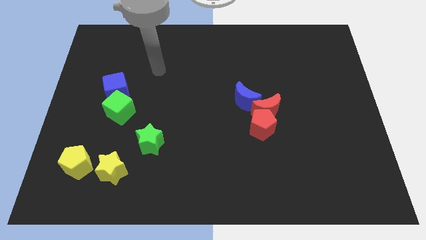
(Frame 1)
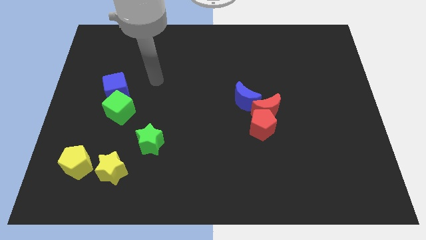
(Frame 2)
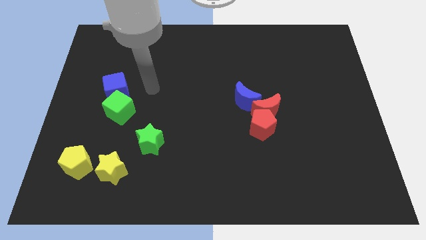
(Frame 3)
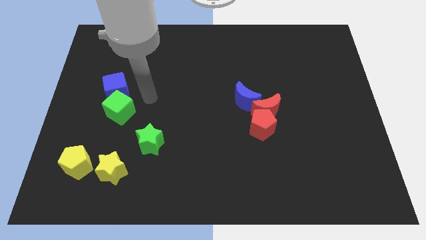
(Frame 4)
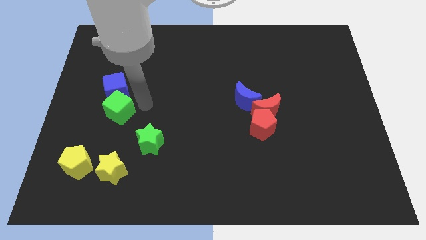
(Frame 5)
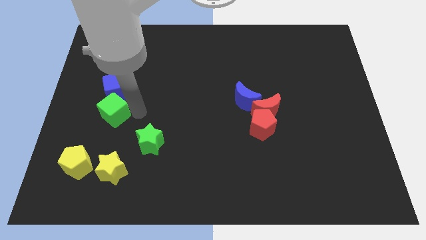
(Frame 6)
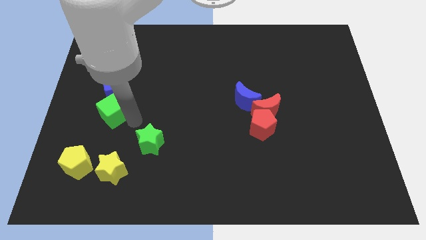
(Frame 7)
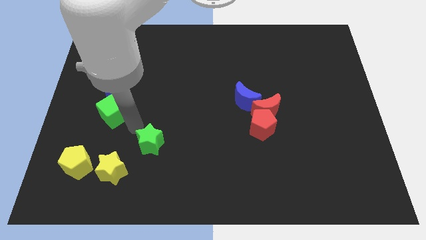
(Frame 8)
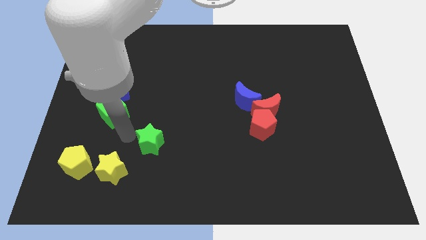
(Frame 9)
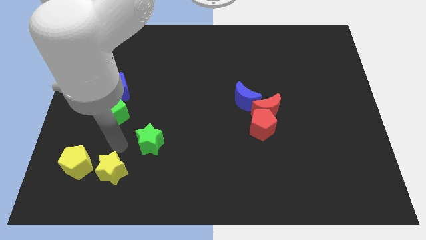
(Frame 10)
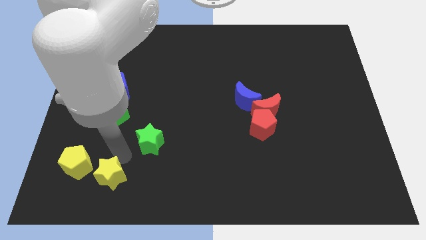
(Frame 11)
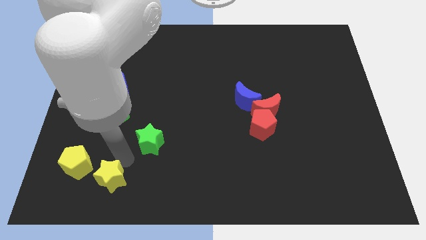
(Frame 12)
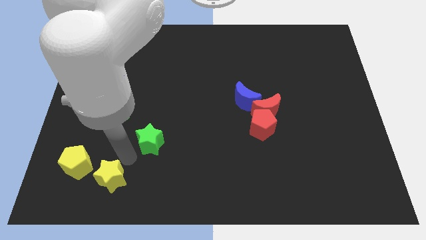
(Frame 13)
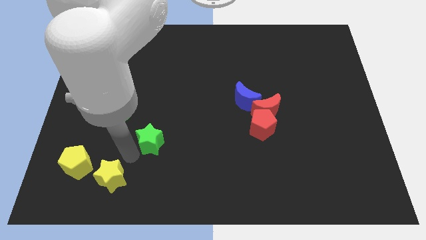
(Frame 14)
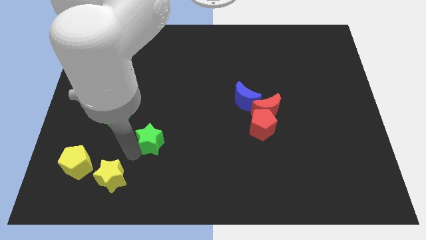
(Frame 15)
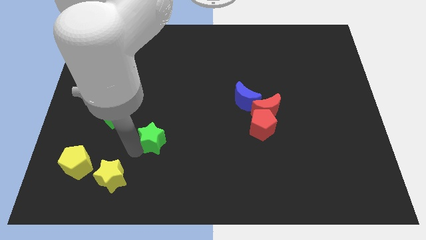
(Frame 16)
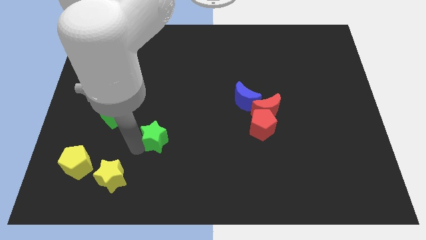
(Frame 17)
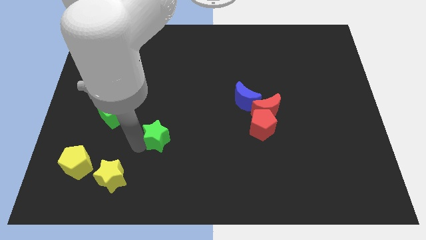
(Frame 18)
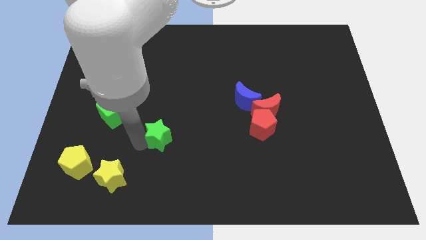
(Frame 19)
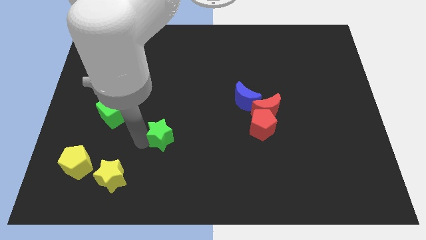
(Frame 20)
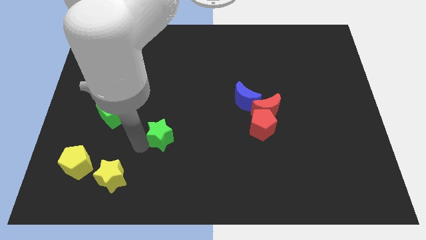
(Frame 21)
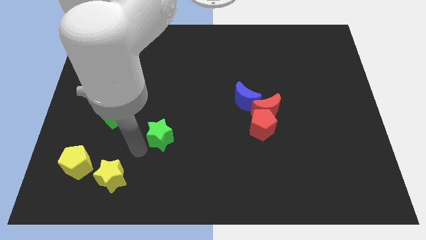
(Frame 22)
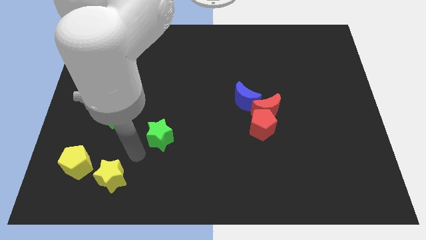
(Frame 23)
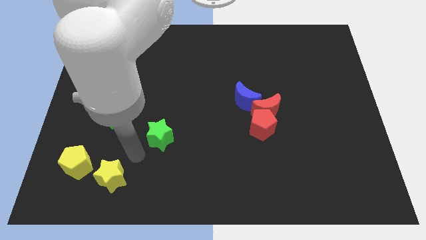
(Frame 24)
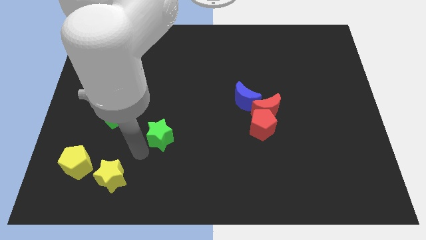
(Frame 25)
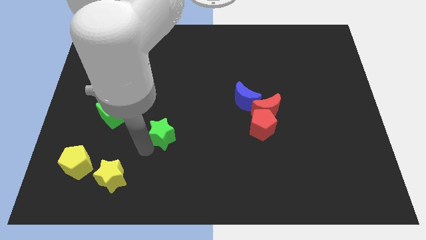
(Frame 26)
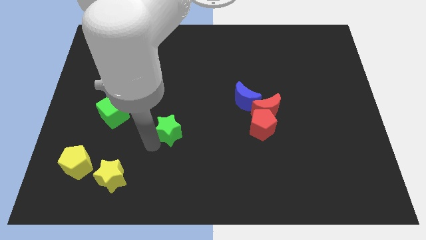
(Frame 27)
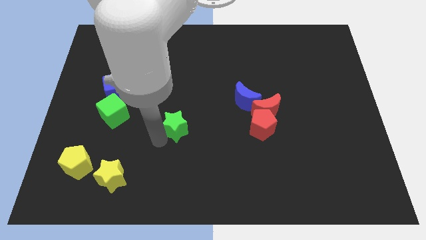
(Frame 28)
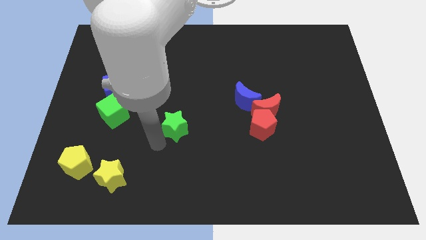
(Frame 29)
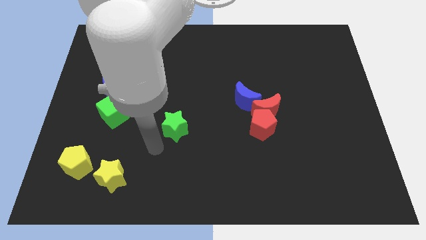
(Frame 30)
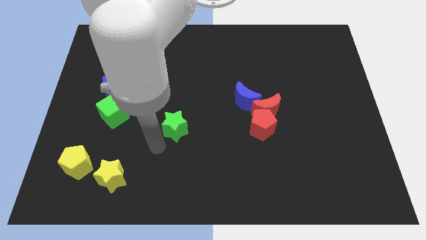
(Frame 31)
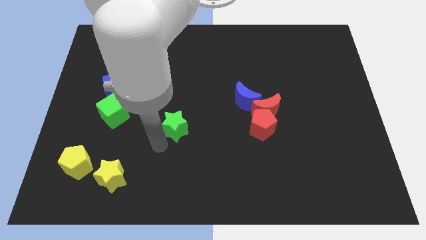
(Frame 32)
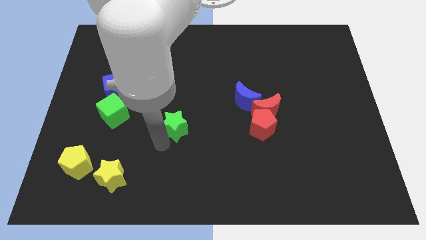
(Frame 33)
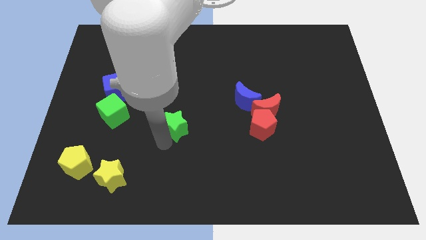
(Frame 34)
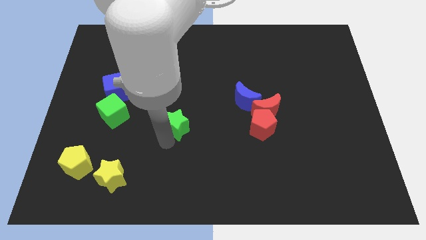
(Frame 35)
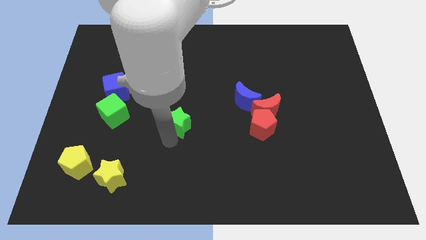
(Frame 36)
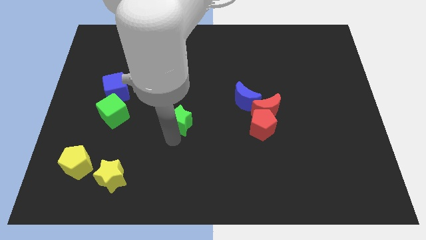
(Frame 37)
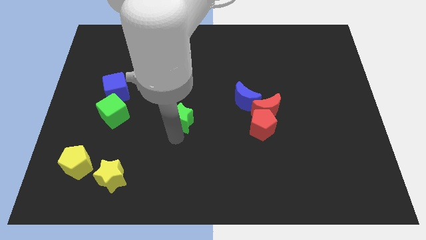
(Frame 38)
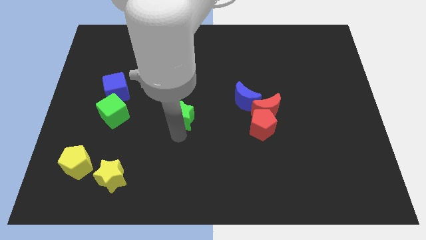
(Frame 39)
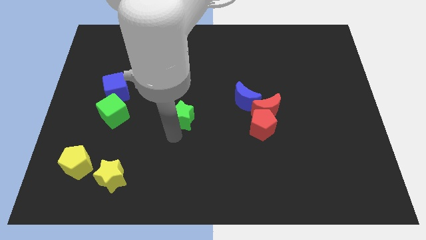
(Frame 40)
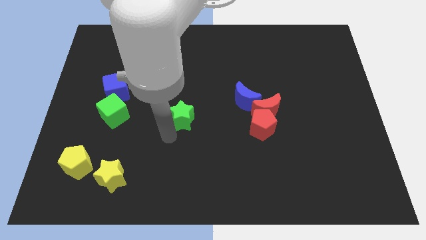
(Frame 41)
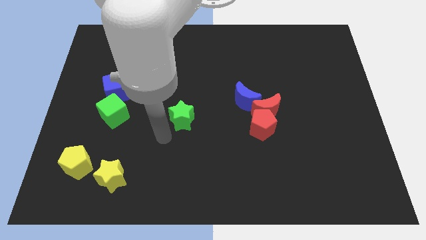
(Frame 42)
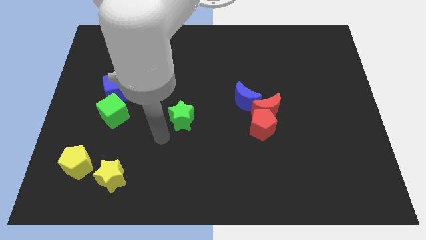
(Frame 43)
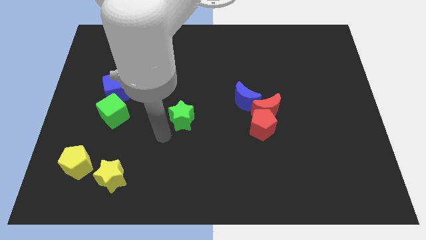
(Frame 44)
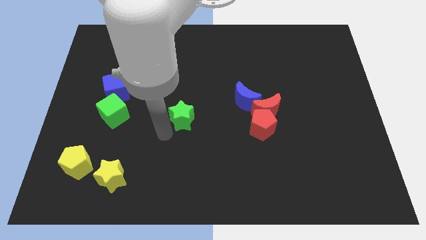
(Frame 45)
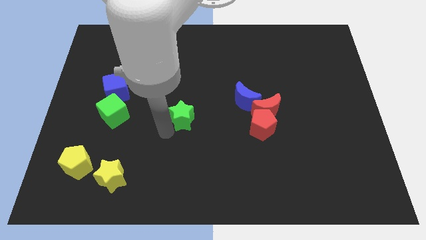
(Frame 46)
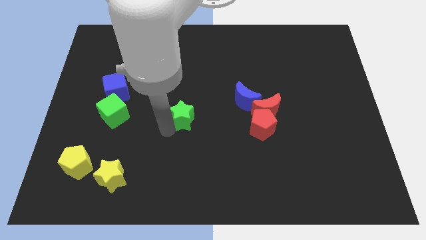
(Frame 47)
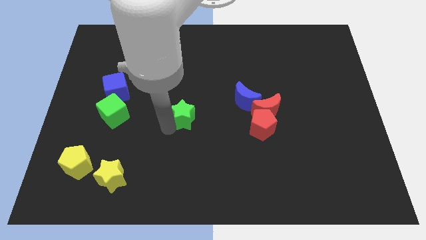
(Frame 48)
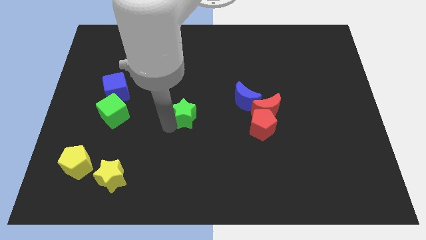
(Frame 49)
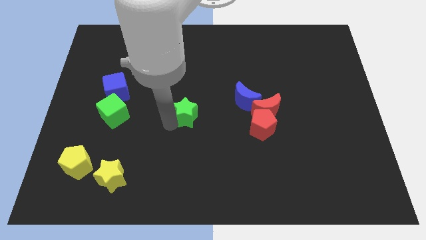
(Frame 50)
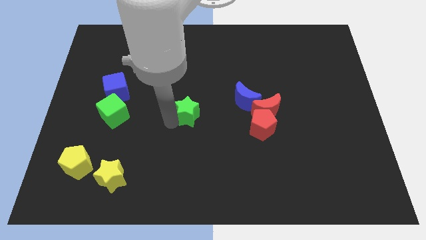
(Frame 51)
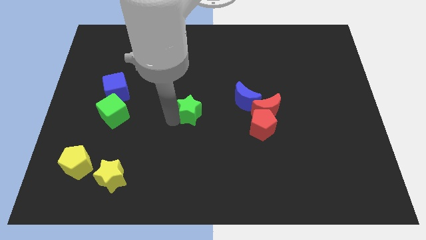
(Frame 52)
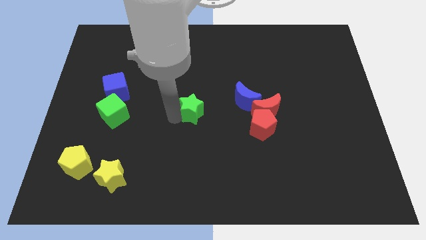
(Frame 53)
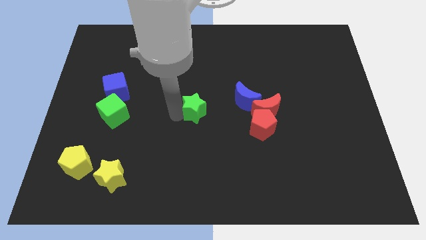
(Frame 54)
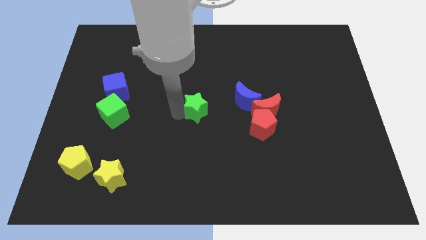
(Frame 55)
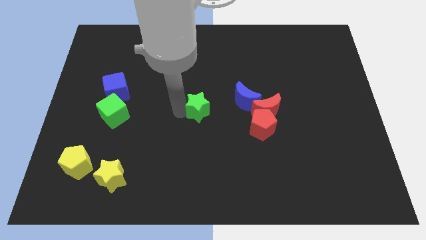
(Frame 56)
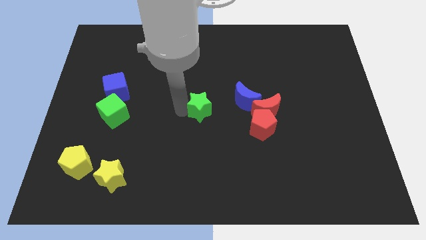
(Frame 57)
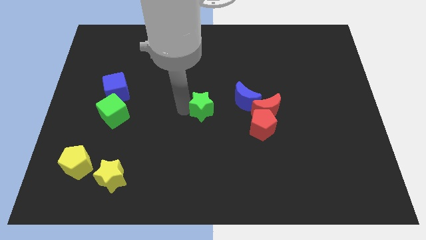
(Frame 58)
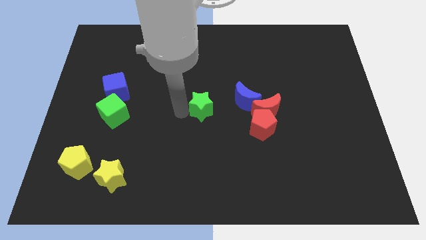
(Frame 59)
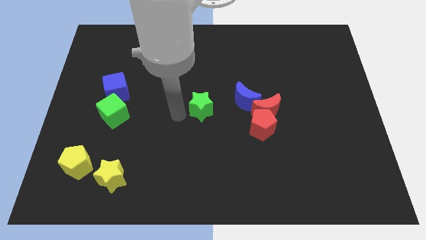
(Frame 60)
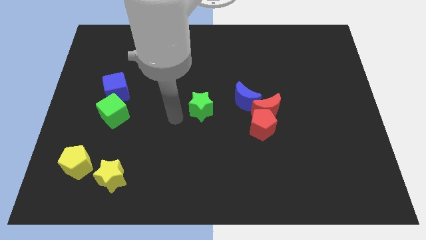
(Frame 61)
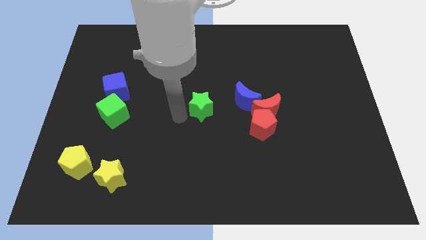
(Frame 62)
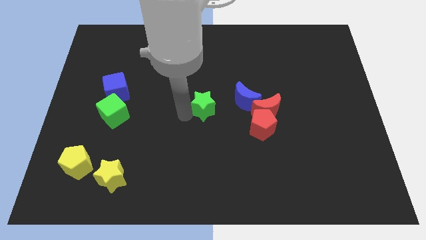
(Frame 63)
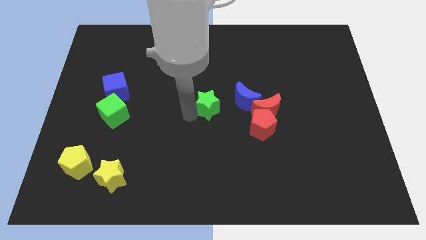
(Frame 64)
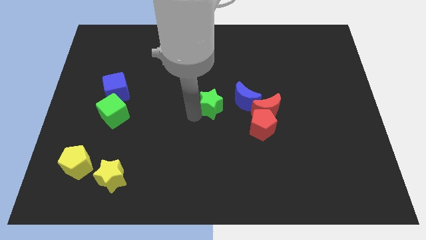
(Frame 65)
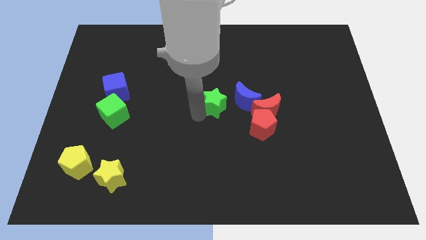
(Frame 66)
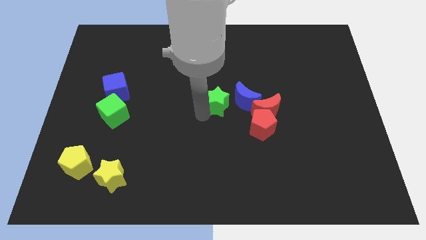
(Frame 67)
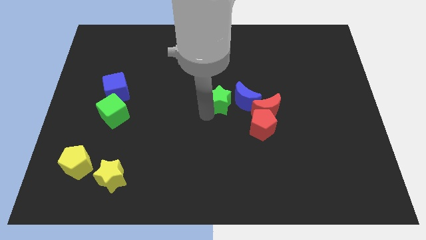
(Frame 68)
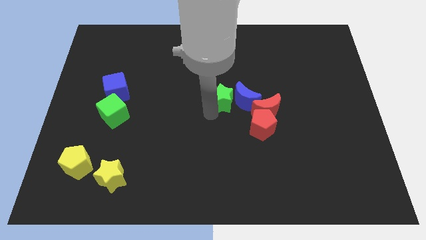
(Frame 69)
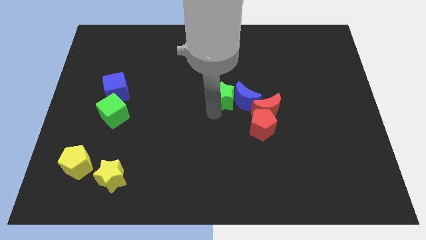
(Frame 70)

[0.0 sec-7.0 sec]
push the green star up and then right

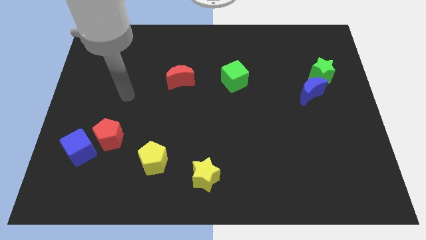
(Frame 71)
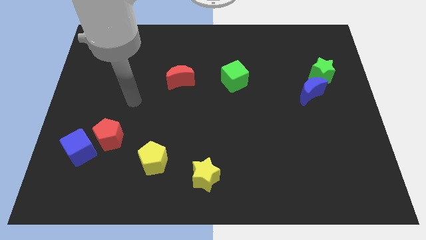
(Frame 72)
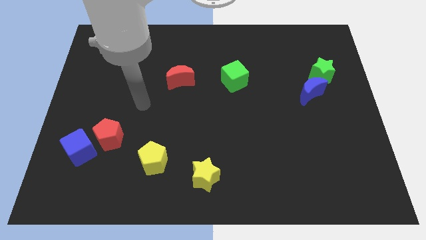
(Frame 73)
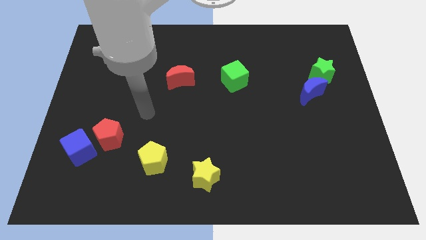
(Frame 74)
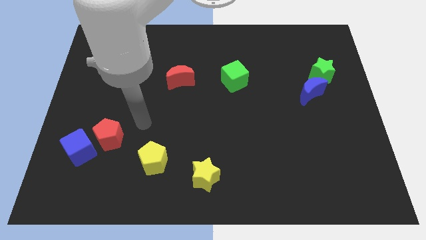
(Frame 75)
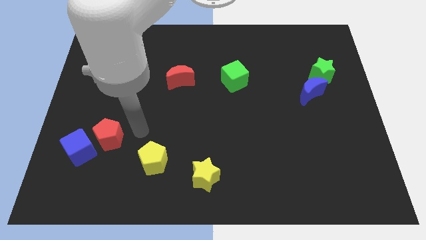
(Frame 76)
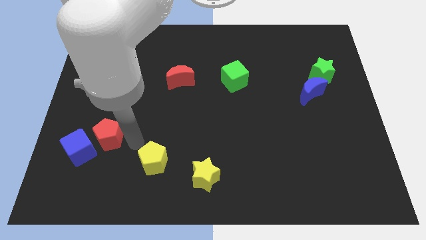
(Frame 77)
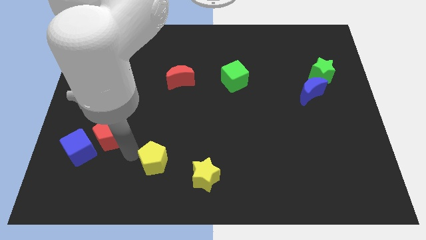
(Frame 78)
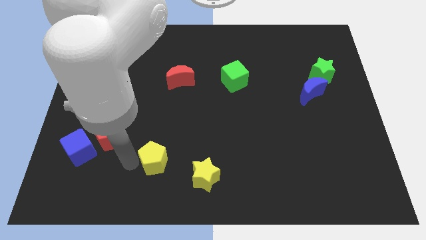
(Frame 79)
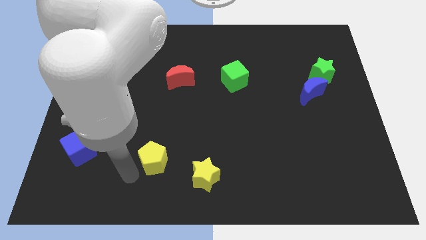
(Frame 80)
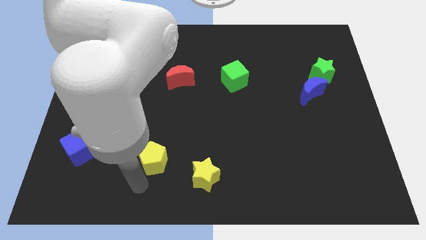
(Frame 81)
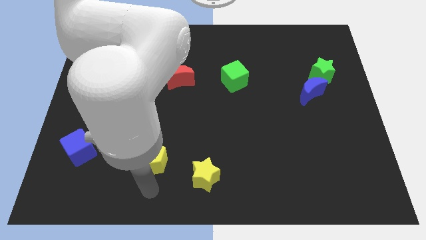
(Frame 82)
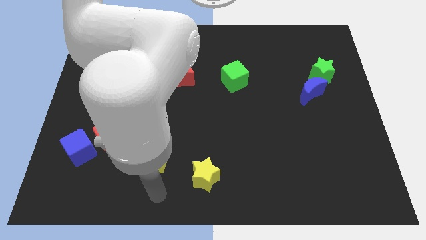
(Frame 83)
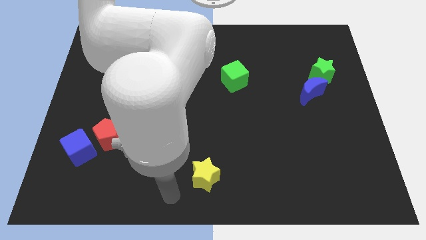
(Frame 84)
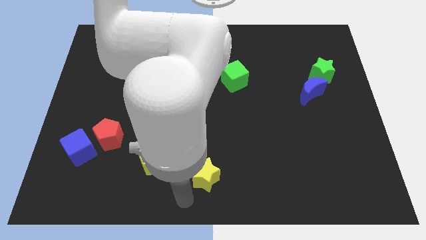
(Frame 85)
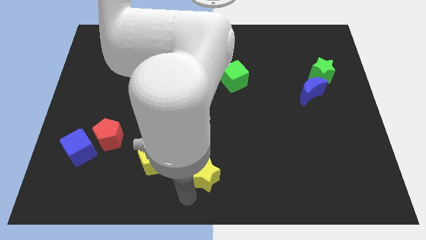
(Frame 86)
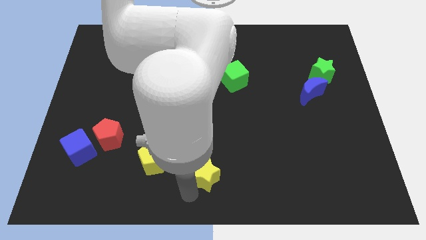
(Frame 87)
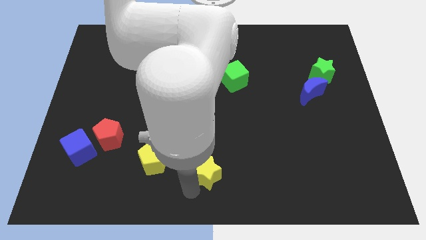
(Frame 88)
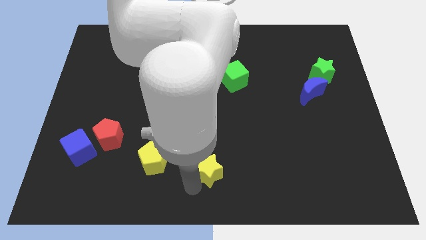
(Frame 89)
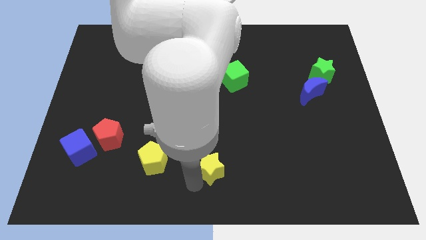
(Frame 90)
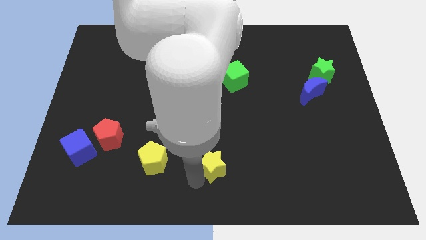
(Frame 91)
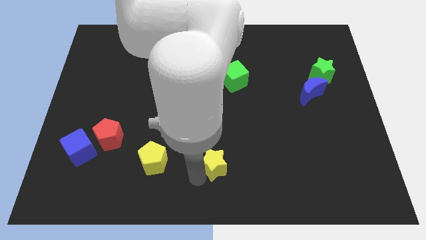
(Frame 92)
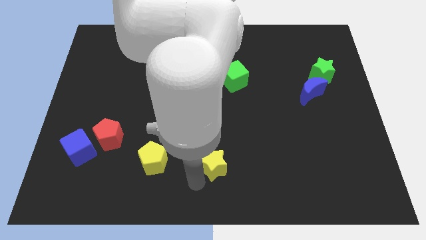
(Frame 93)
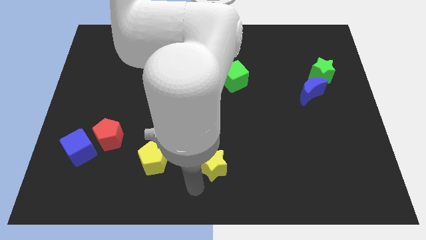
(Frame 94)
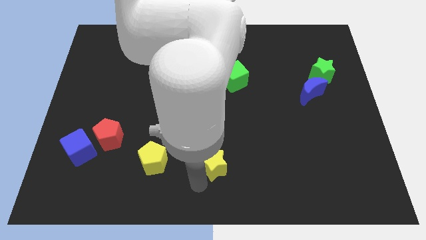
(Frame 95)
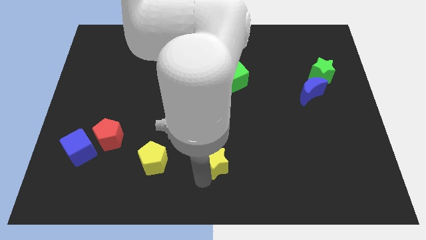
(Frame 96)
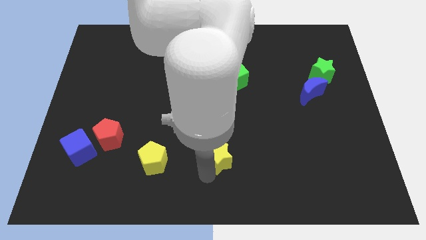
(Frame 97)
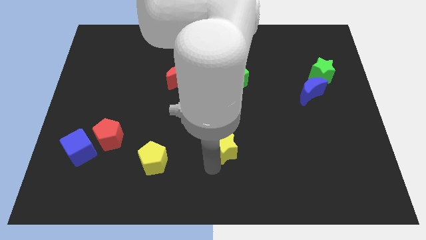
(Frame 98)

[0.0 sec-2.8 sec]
slightly slide the yellow star up and to the right diagonally
